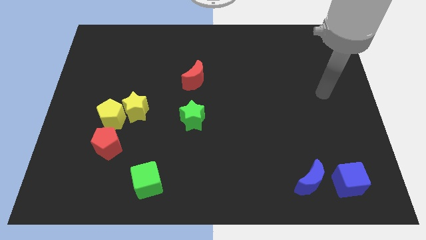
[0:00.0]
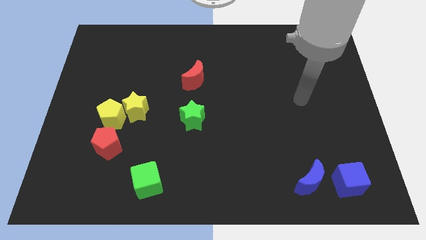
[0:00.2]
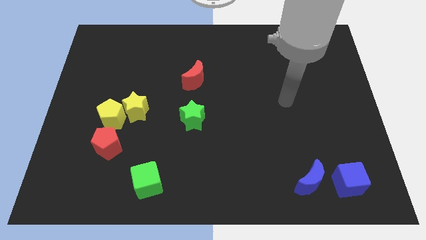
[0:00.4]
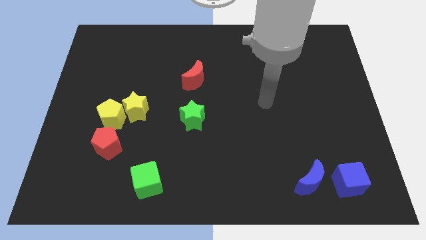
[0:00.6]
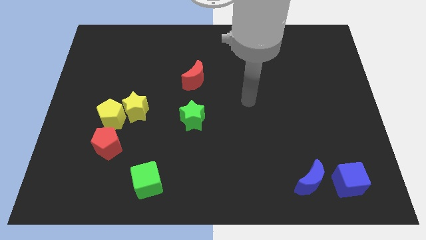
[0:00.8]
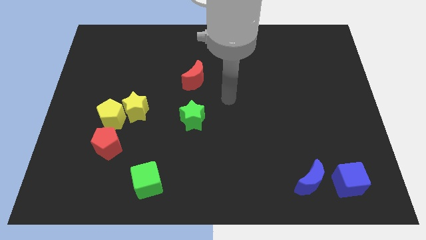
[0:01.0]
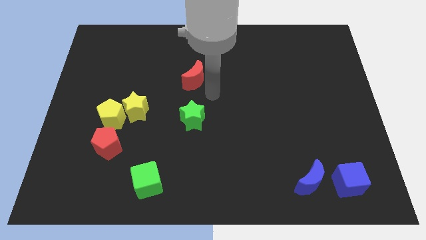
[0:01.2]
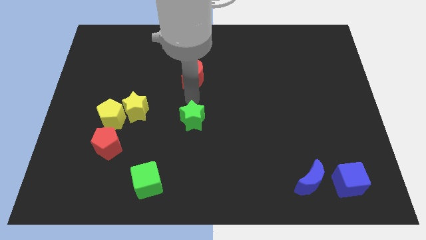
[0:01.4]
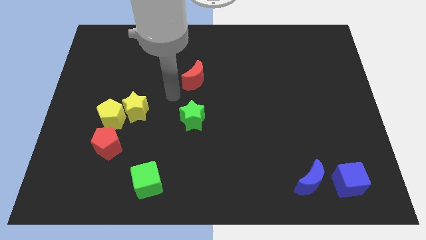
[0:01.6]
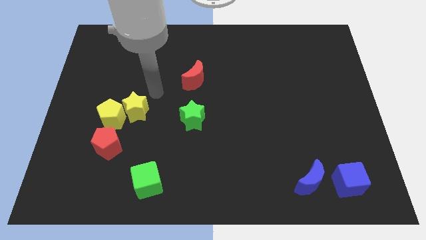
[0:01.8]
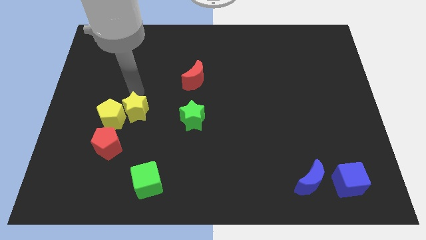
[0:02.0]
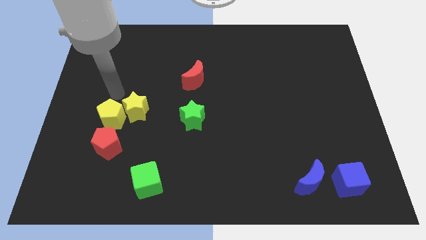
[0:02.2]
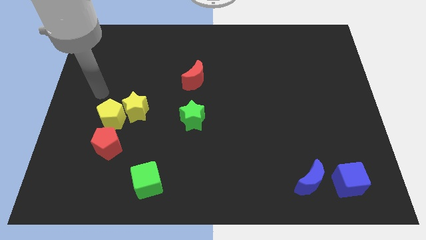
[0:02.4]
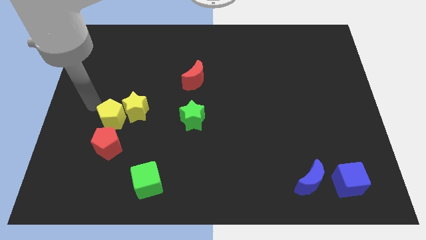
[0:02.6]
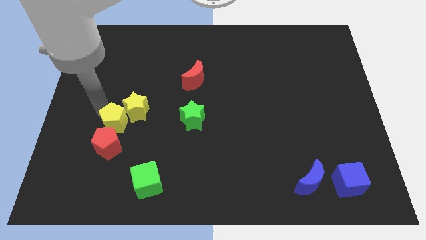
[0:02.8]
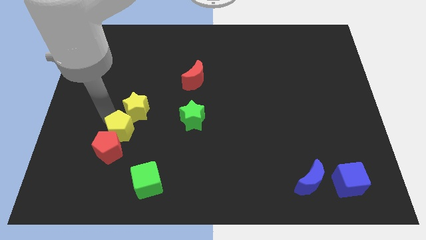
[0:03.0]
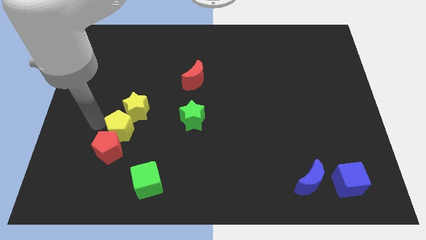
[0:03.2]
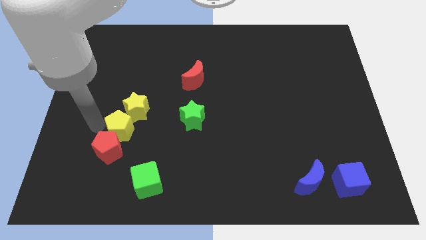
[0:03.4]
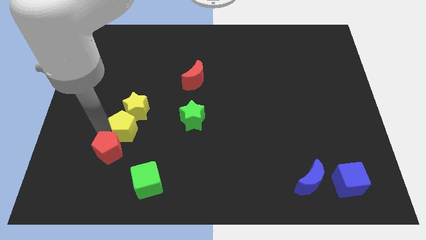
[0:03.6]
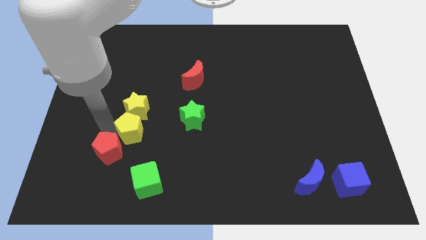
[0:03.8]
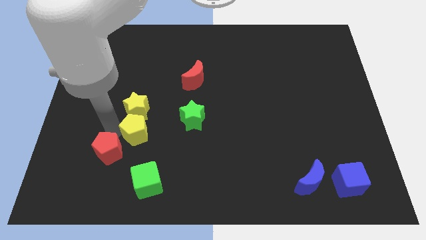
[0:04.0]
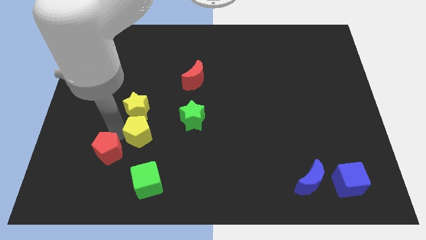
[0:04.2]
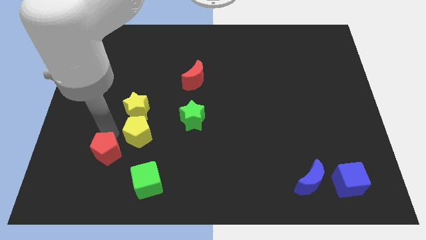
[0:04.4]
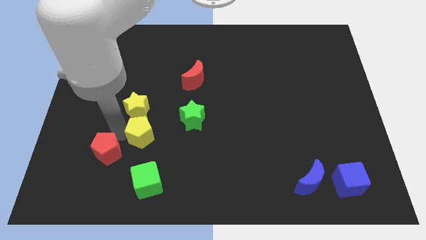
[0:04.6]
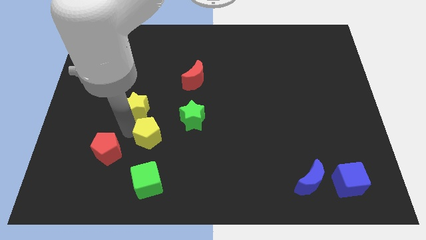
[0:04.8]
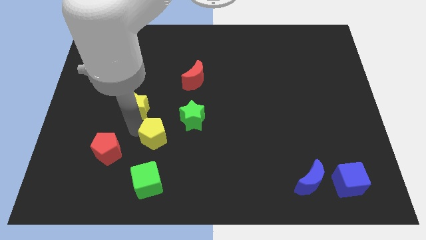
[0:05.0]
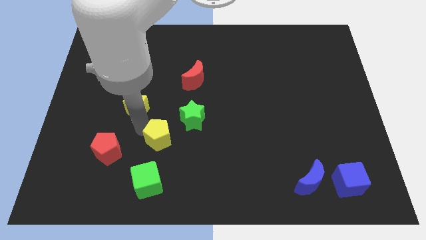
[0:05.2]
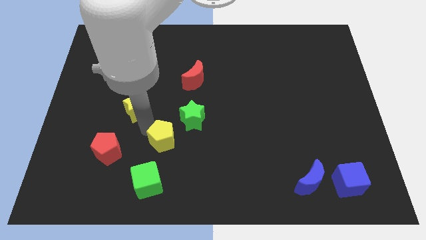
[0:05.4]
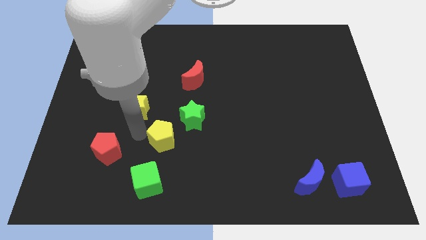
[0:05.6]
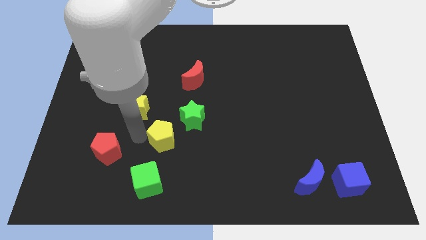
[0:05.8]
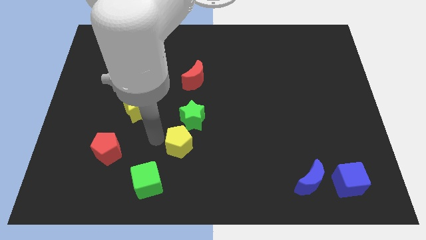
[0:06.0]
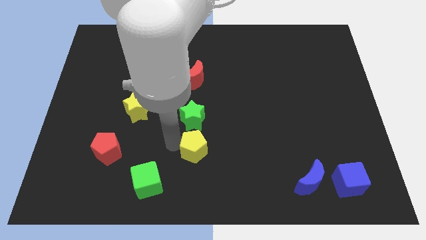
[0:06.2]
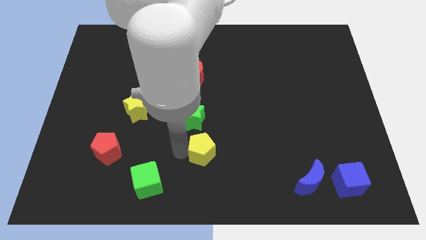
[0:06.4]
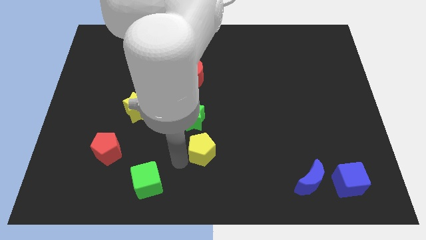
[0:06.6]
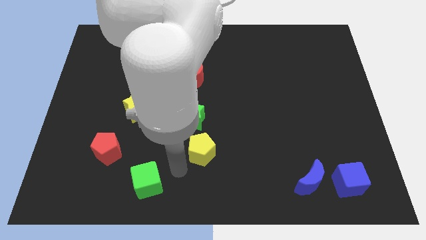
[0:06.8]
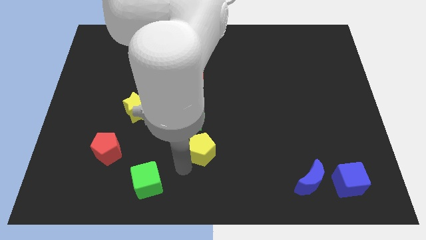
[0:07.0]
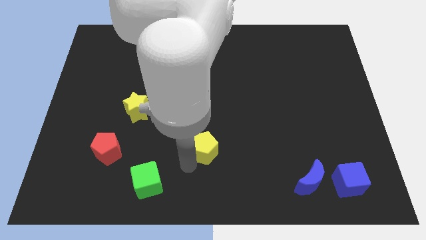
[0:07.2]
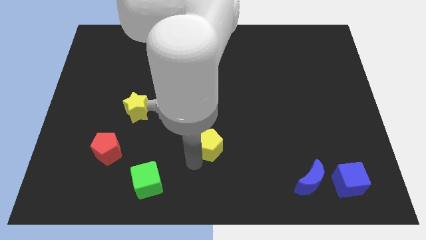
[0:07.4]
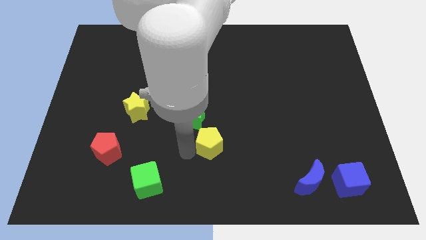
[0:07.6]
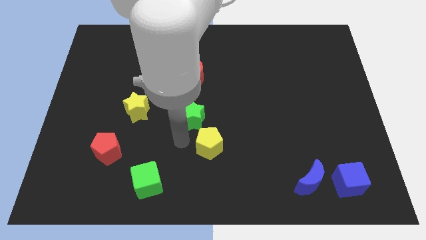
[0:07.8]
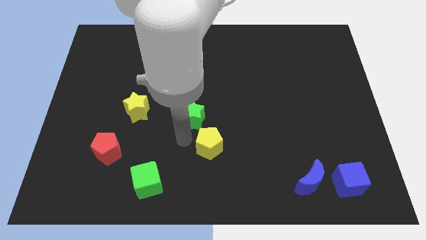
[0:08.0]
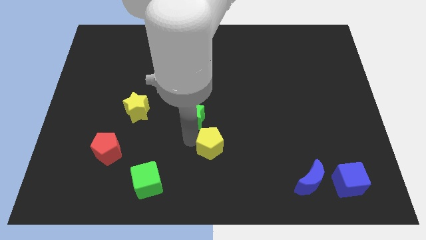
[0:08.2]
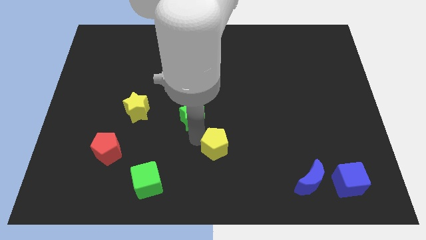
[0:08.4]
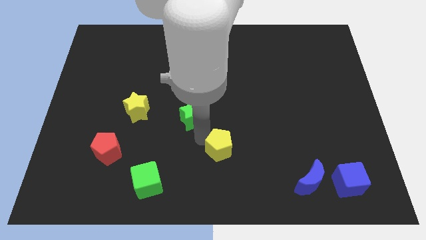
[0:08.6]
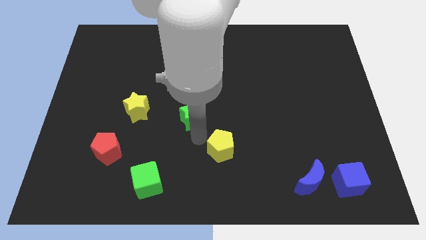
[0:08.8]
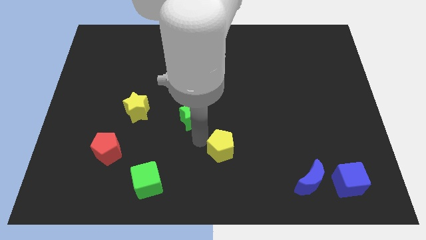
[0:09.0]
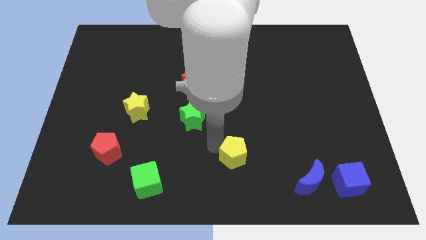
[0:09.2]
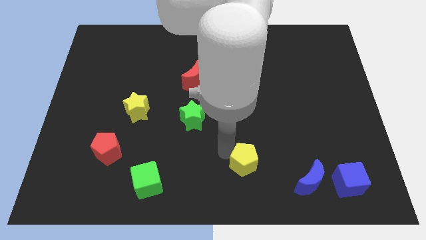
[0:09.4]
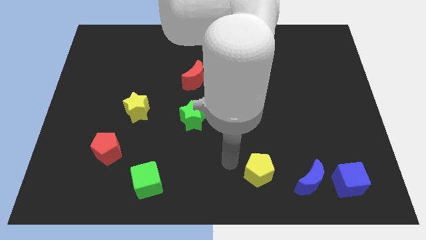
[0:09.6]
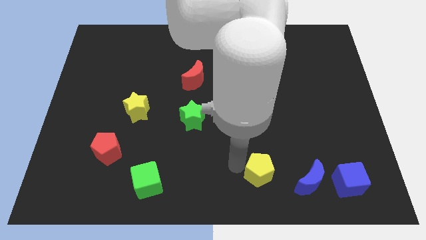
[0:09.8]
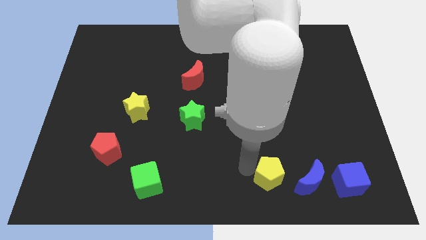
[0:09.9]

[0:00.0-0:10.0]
move the yellow pentagon to the left side of the blue cube

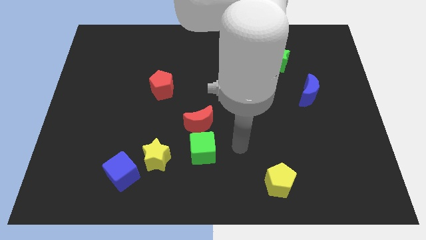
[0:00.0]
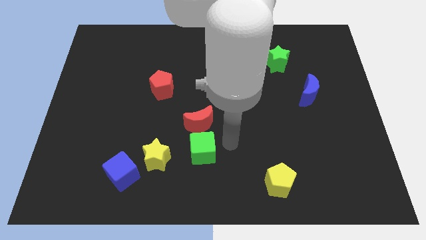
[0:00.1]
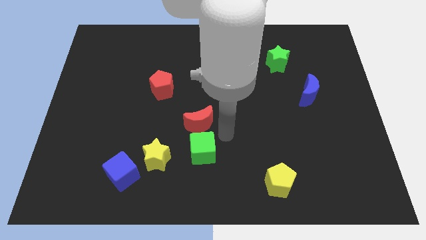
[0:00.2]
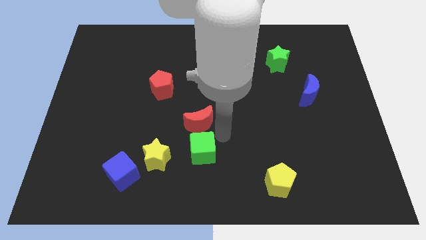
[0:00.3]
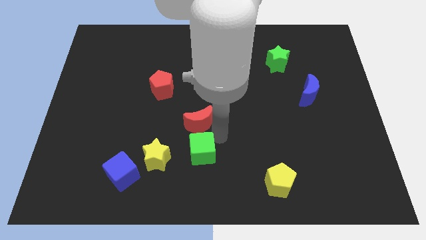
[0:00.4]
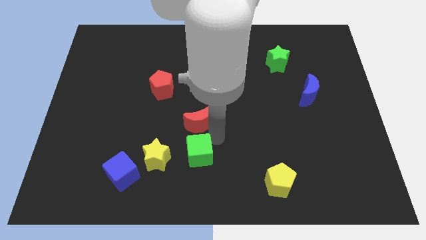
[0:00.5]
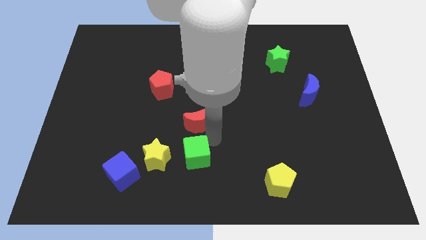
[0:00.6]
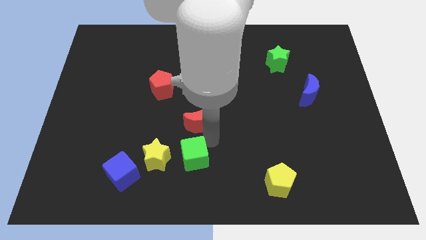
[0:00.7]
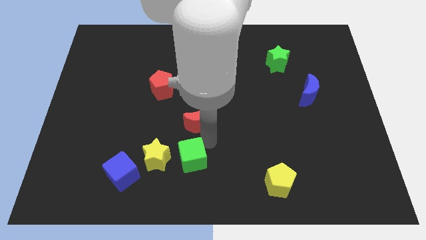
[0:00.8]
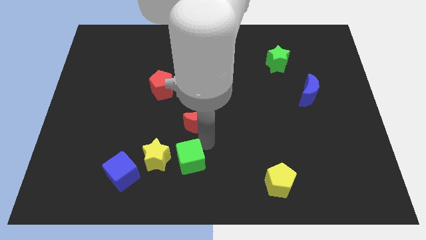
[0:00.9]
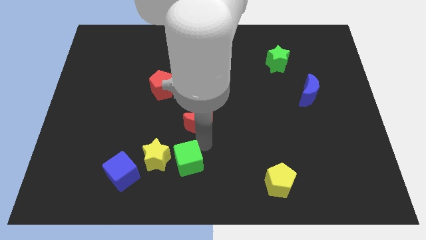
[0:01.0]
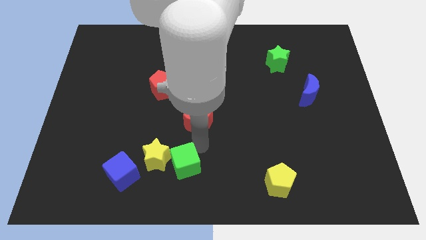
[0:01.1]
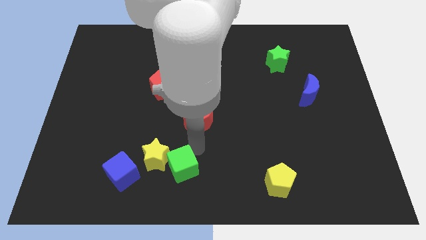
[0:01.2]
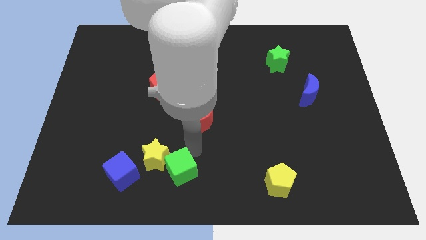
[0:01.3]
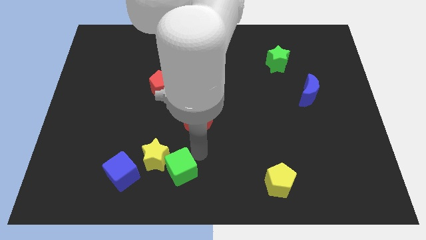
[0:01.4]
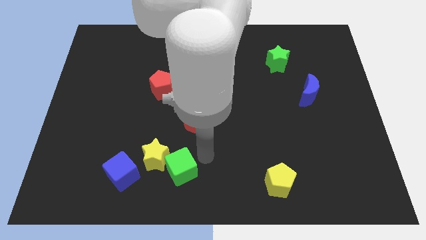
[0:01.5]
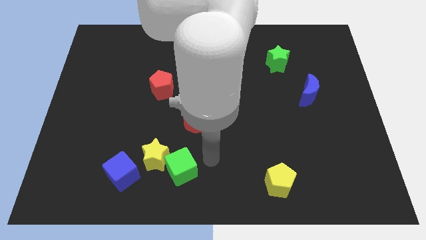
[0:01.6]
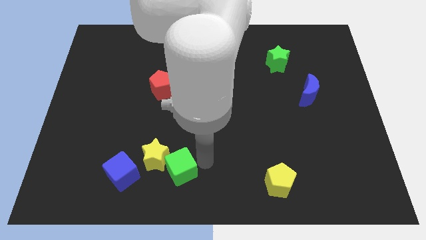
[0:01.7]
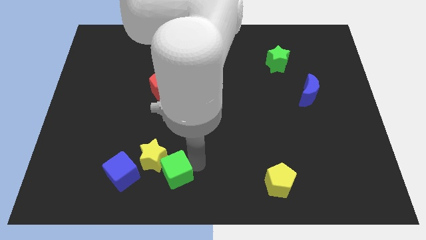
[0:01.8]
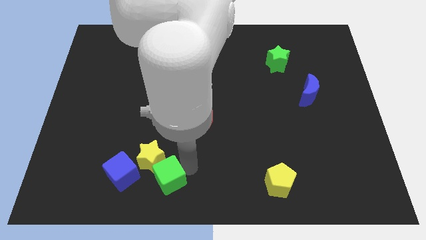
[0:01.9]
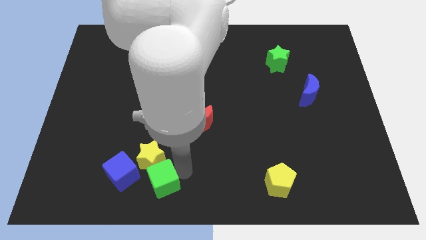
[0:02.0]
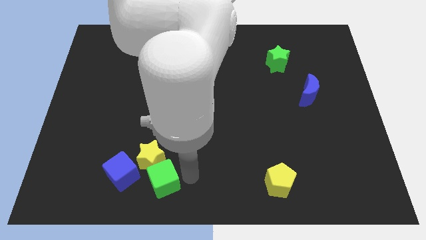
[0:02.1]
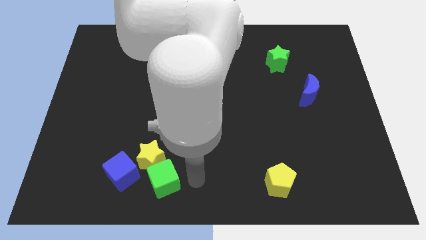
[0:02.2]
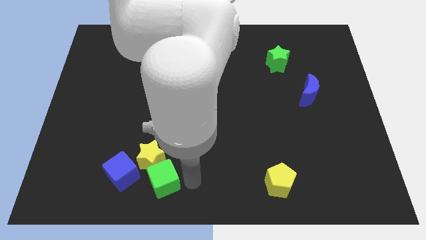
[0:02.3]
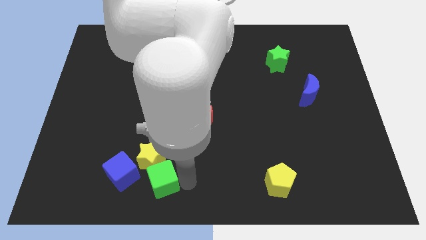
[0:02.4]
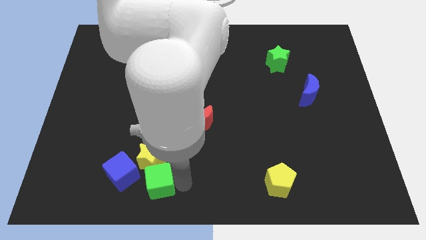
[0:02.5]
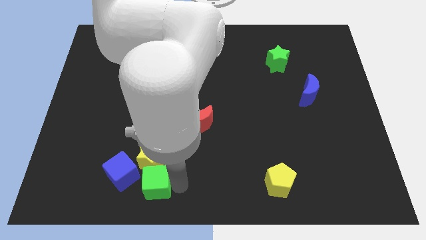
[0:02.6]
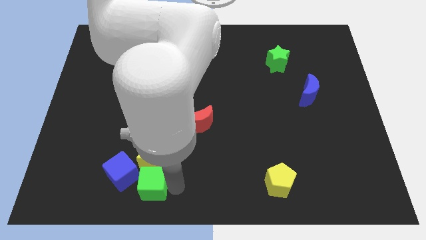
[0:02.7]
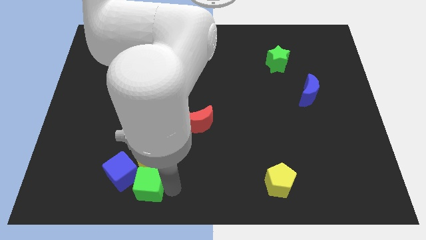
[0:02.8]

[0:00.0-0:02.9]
slide the green cube diagonally down and to the left of the yellow star
